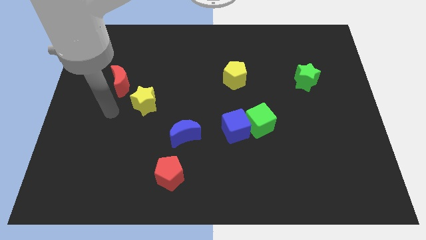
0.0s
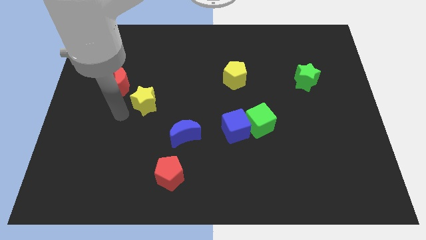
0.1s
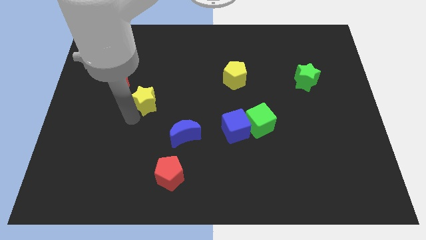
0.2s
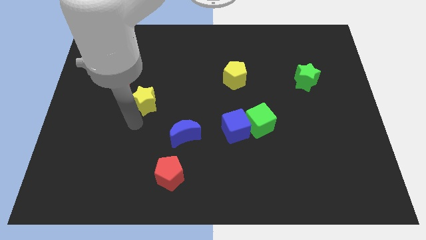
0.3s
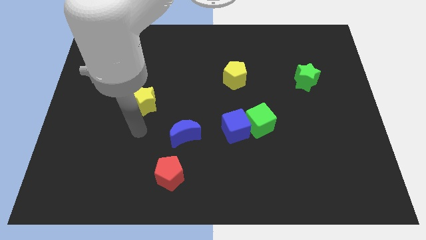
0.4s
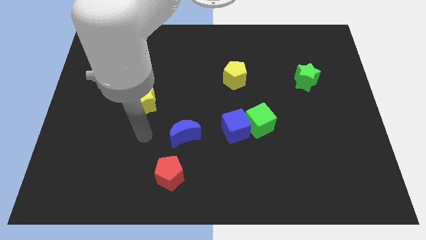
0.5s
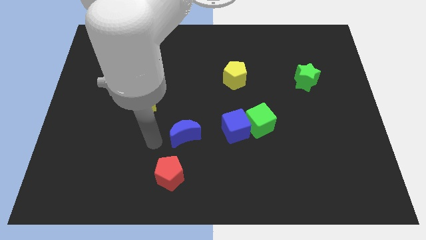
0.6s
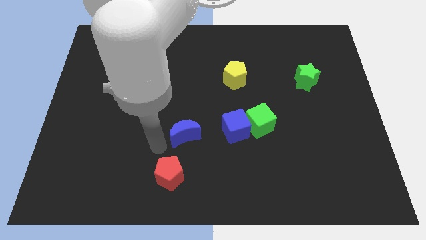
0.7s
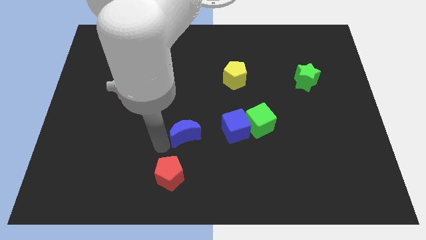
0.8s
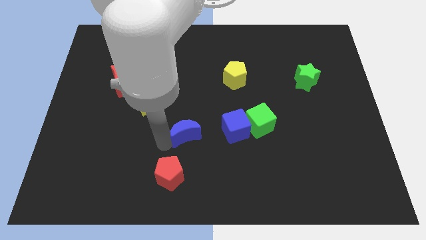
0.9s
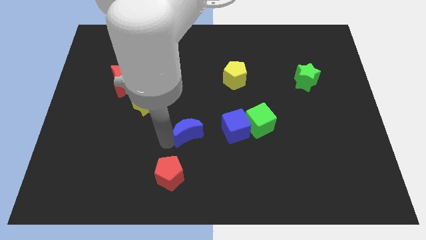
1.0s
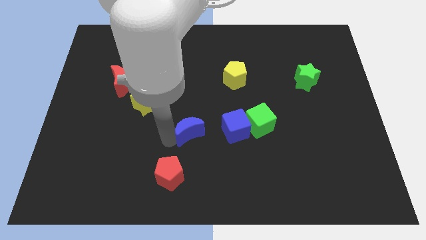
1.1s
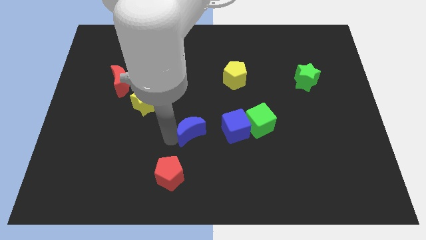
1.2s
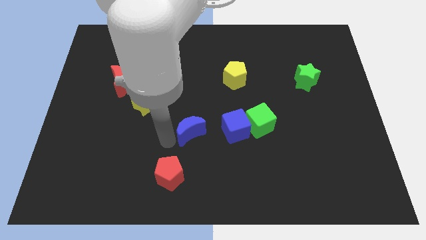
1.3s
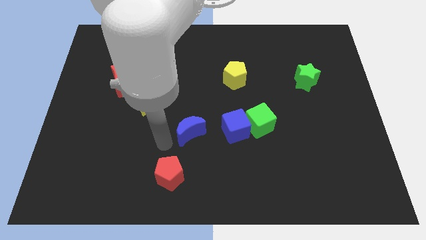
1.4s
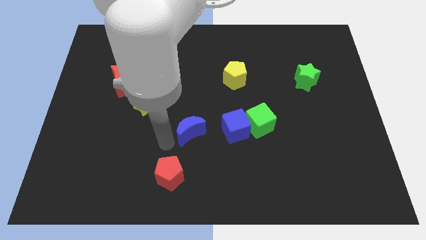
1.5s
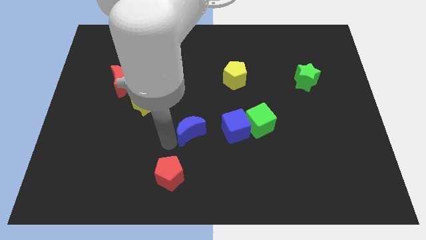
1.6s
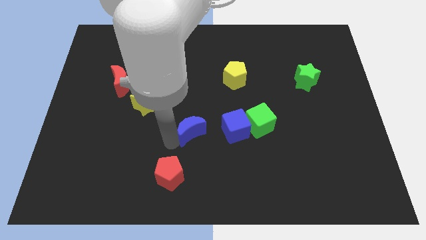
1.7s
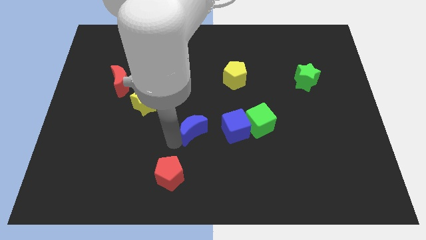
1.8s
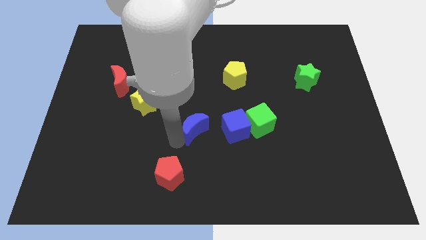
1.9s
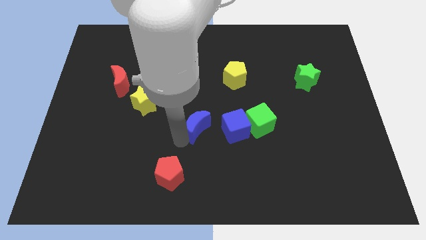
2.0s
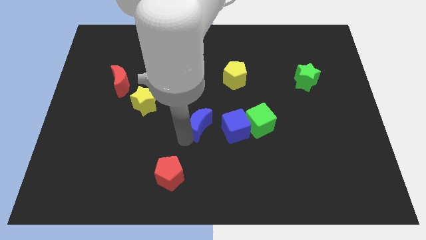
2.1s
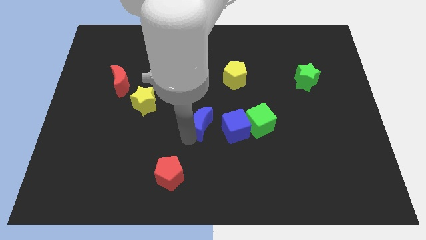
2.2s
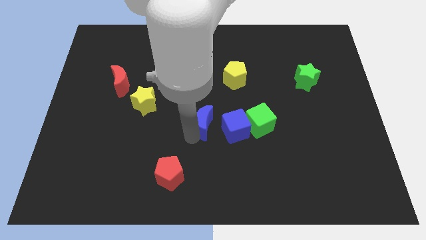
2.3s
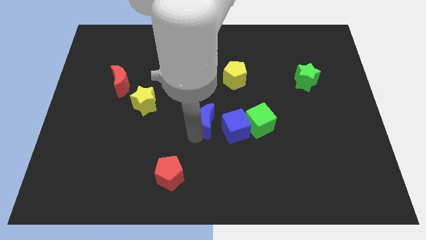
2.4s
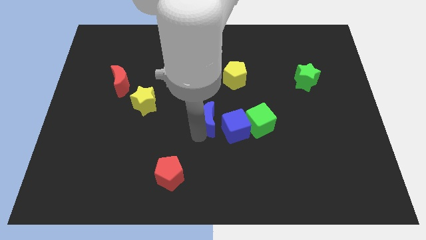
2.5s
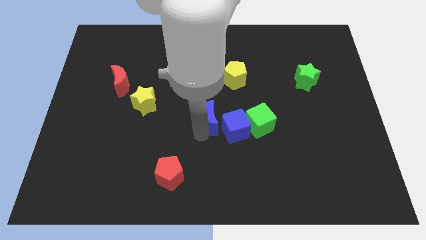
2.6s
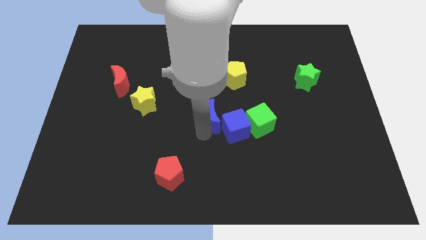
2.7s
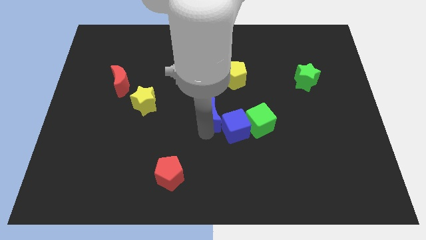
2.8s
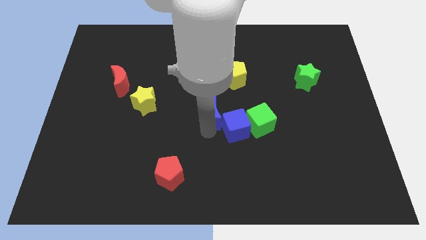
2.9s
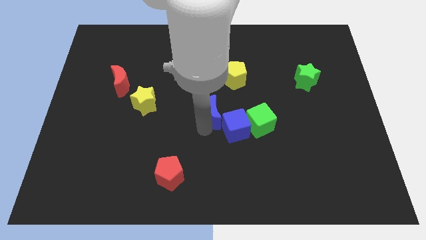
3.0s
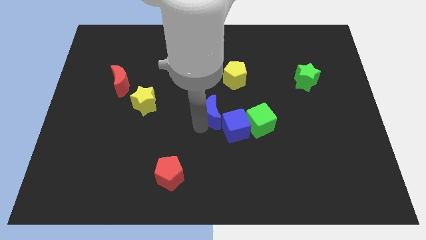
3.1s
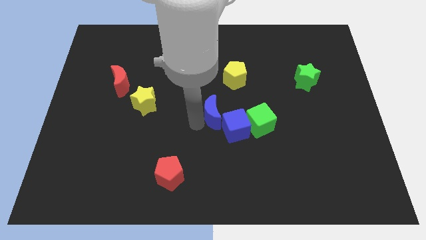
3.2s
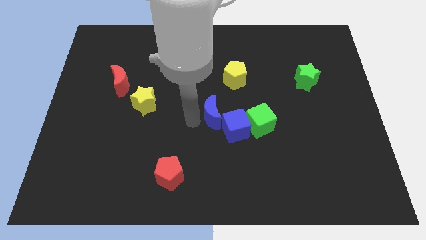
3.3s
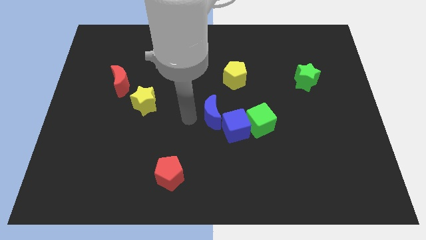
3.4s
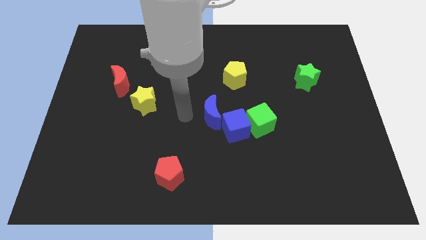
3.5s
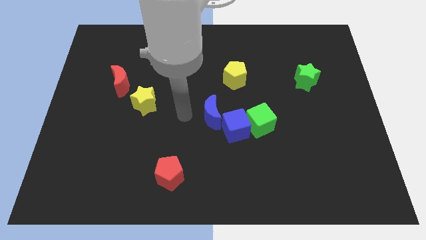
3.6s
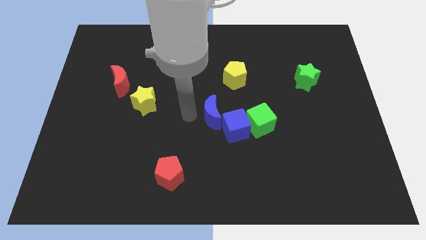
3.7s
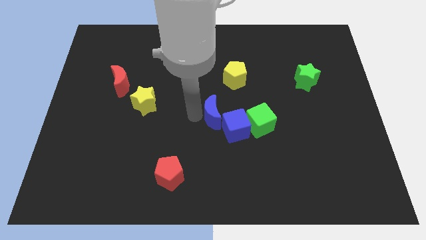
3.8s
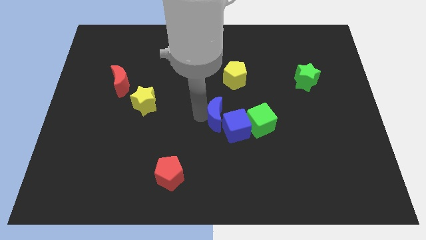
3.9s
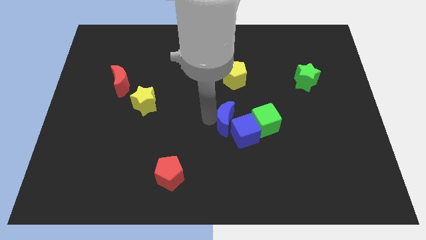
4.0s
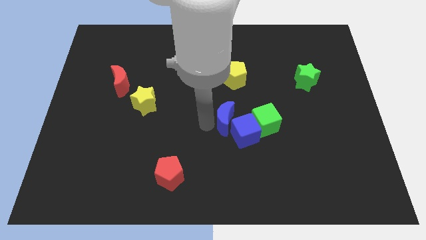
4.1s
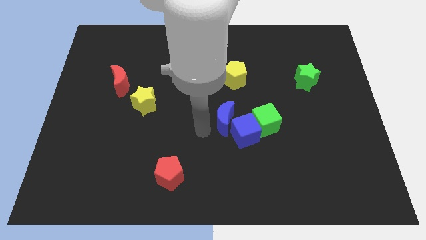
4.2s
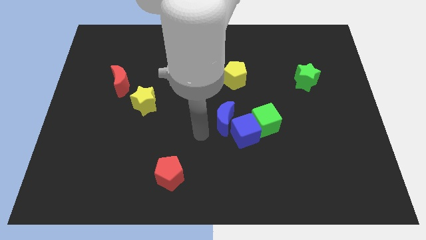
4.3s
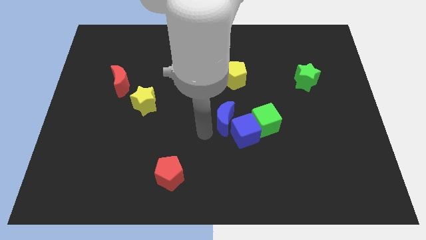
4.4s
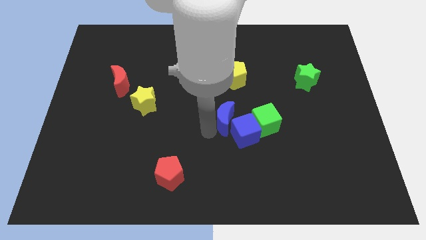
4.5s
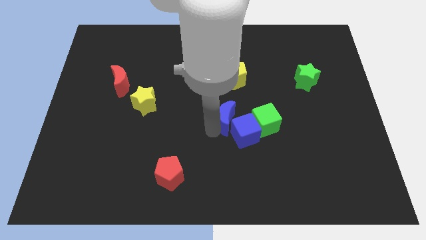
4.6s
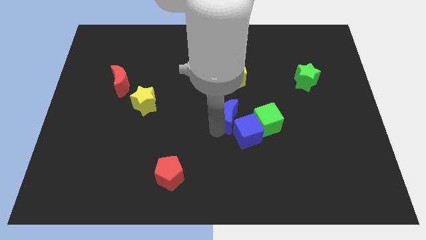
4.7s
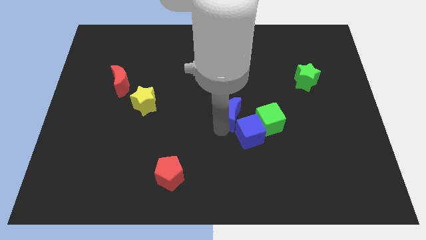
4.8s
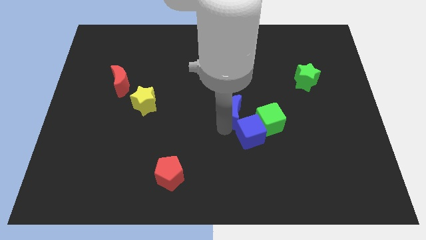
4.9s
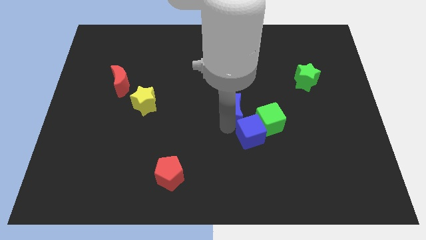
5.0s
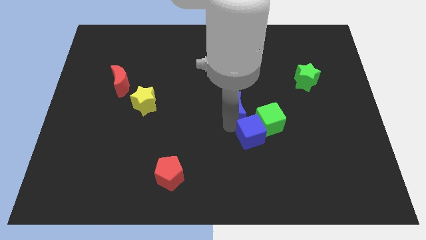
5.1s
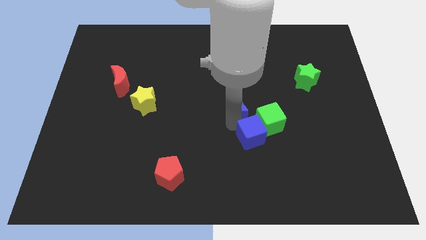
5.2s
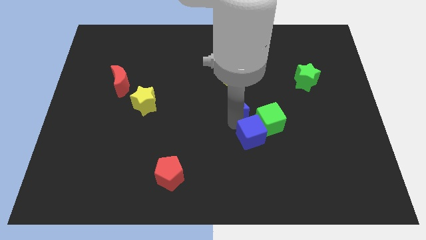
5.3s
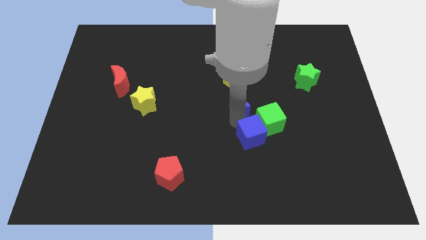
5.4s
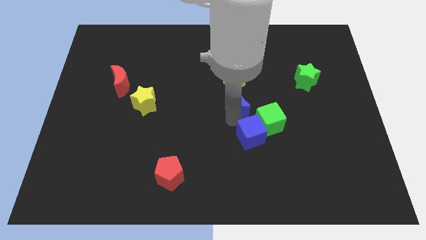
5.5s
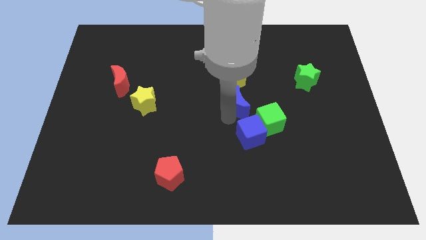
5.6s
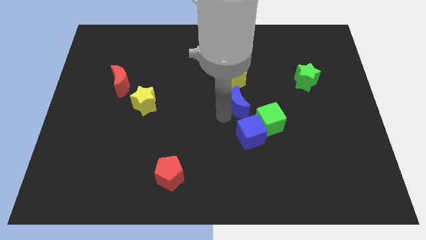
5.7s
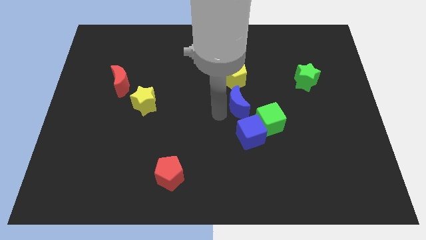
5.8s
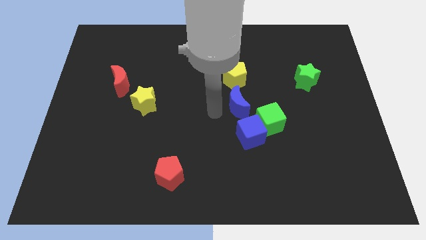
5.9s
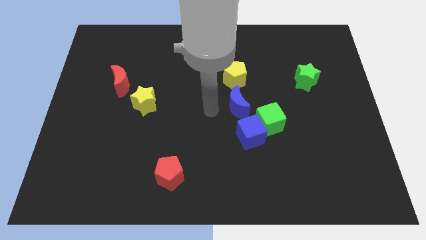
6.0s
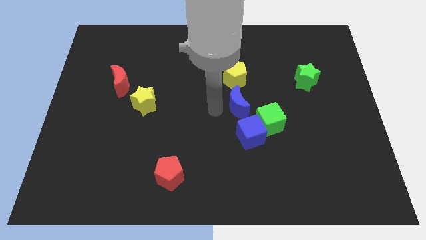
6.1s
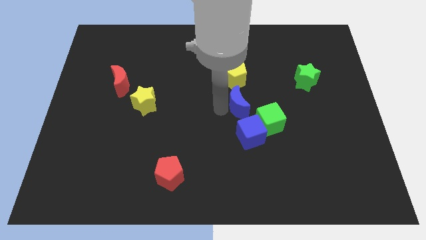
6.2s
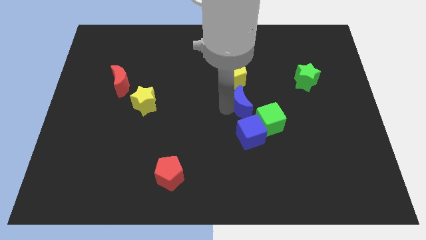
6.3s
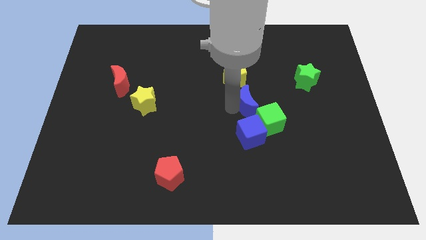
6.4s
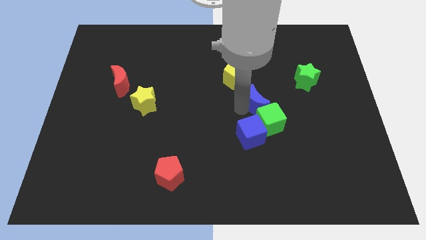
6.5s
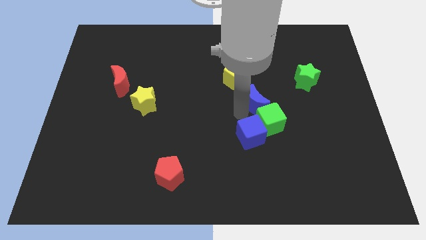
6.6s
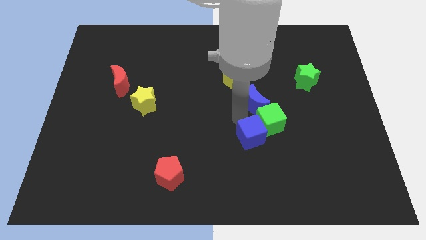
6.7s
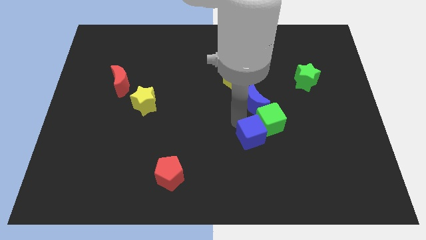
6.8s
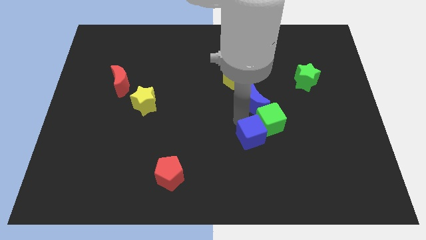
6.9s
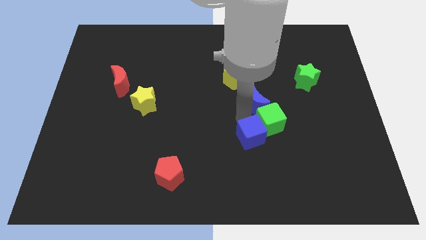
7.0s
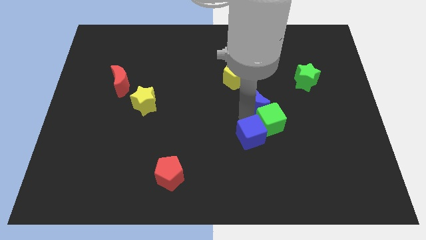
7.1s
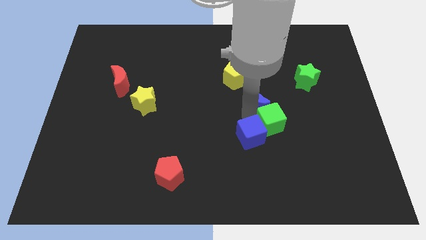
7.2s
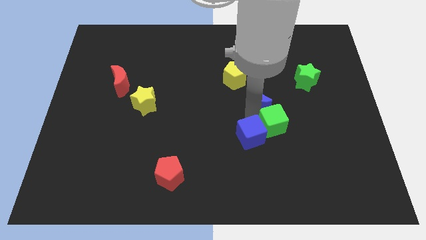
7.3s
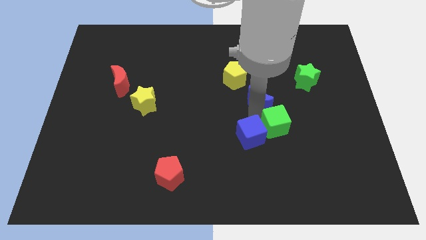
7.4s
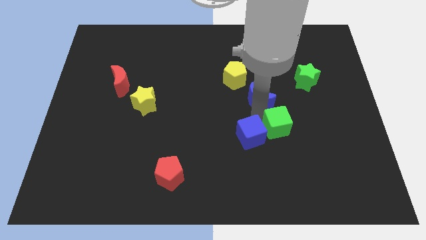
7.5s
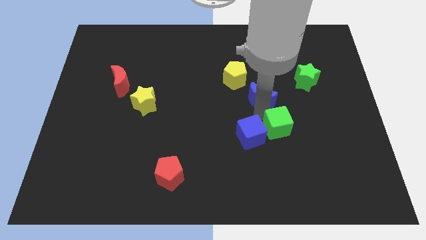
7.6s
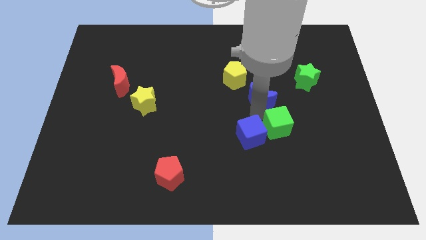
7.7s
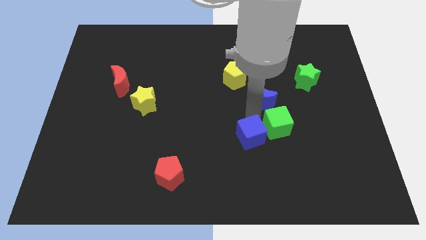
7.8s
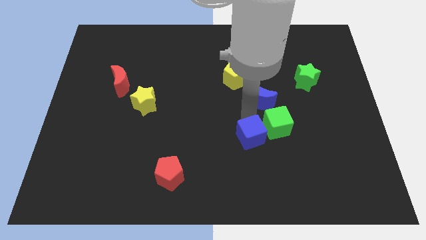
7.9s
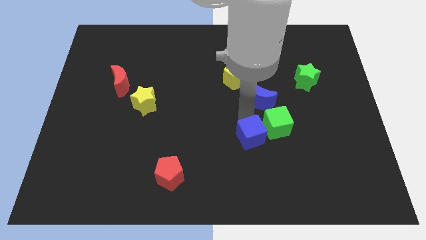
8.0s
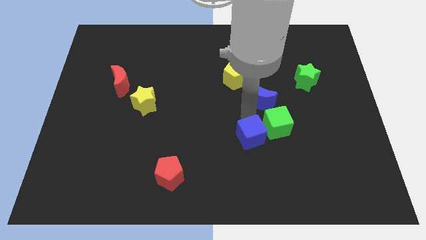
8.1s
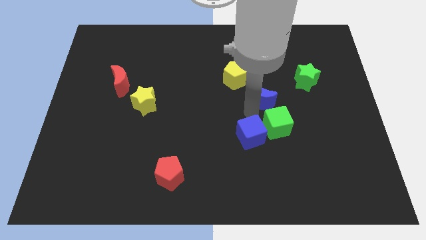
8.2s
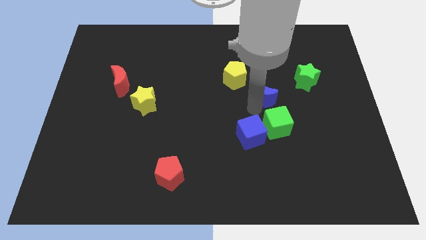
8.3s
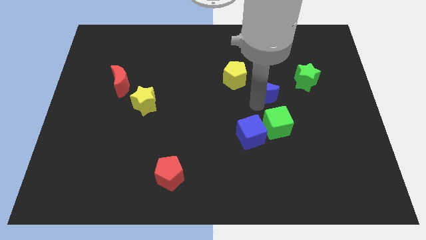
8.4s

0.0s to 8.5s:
move the blue moon up and then right
